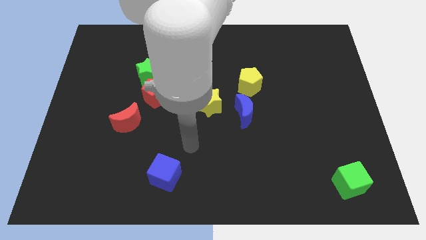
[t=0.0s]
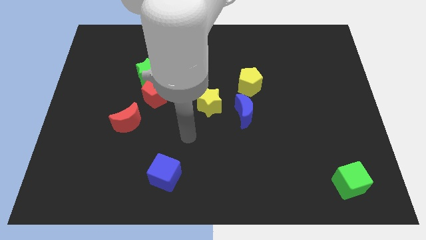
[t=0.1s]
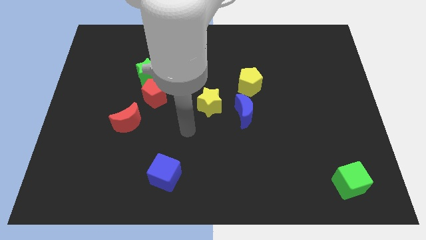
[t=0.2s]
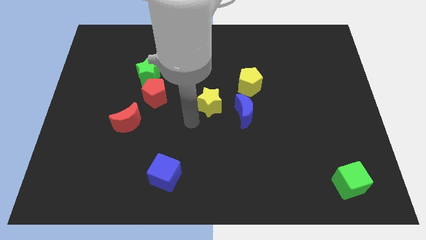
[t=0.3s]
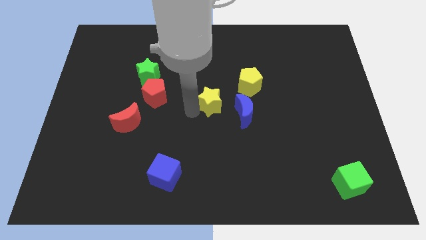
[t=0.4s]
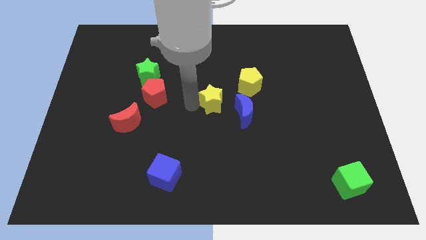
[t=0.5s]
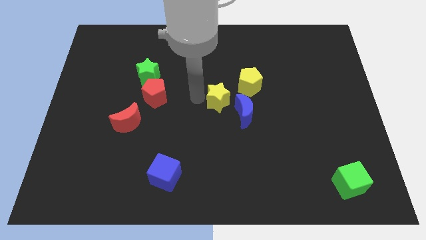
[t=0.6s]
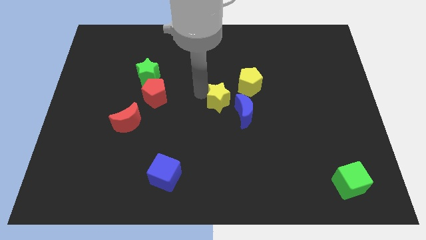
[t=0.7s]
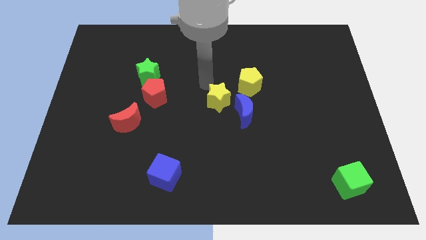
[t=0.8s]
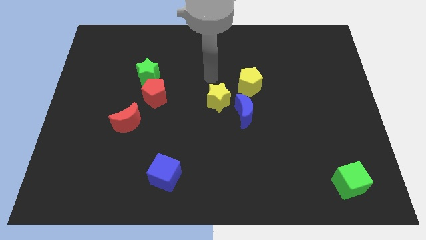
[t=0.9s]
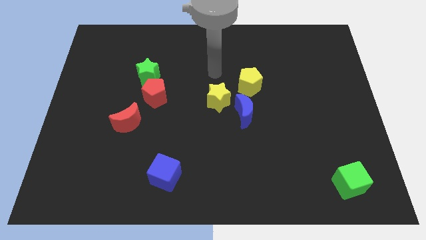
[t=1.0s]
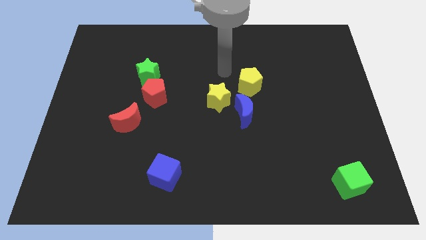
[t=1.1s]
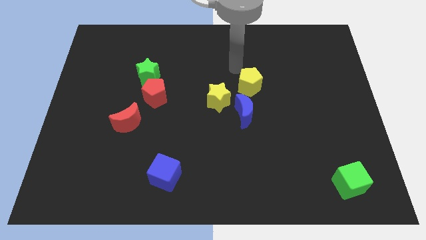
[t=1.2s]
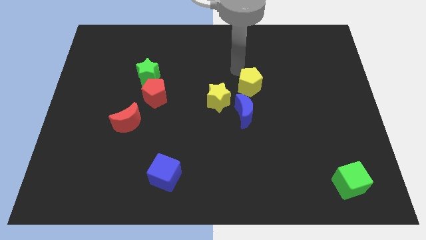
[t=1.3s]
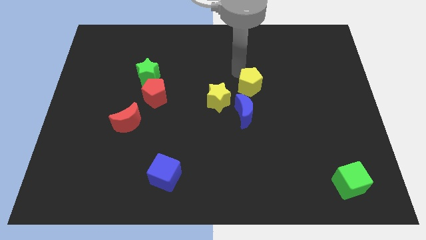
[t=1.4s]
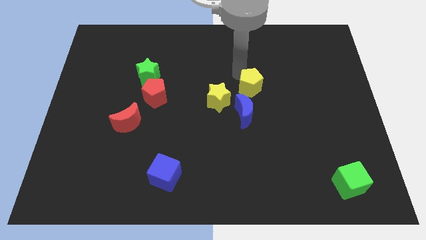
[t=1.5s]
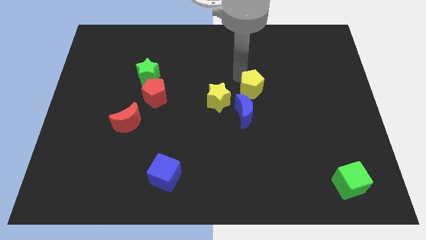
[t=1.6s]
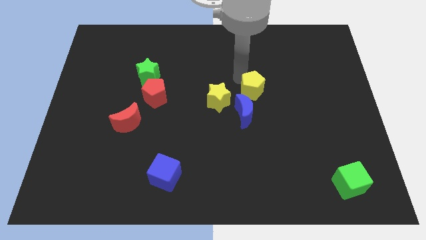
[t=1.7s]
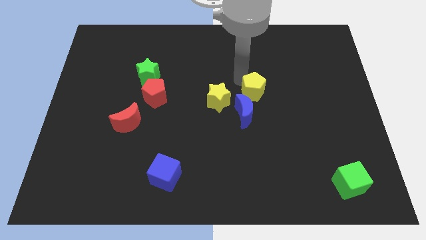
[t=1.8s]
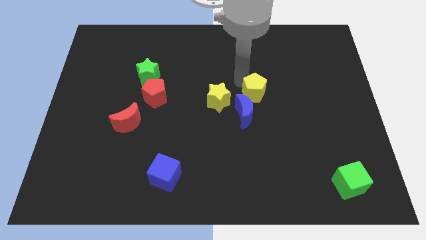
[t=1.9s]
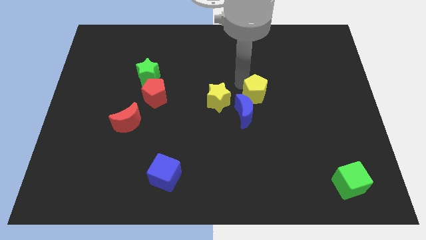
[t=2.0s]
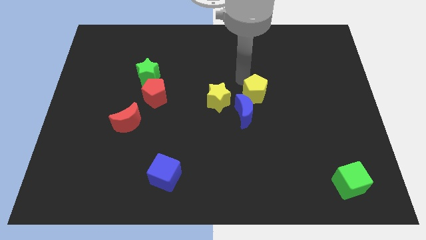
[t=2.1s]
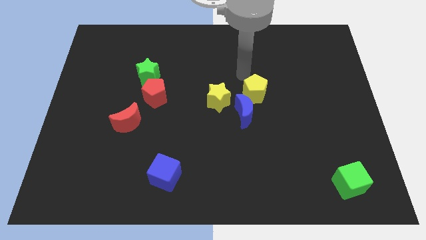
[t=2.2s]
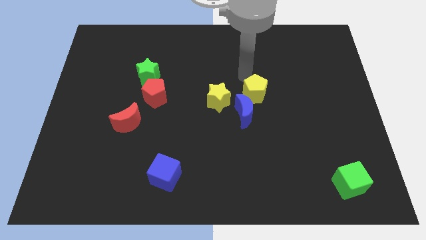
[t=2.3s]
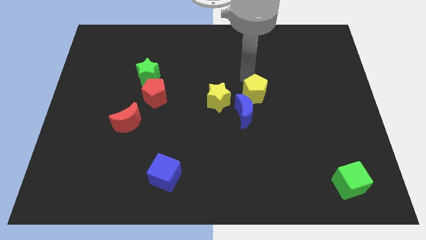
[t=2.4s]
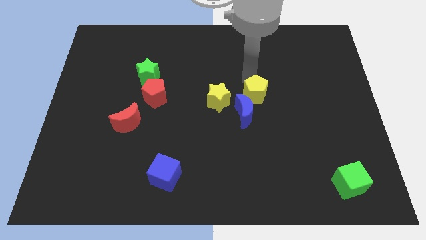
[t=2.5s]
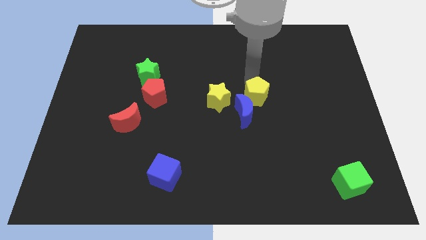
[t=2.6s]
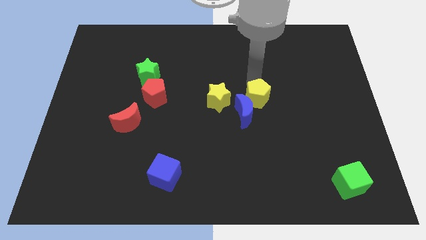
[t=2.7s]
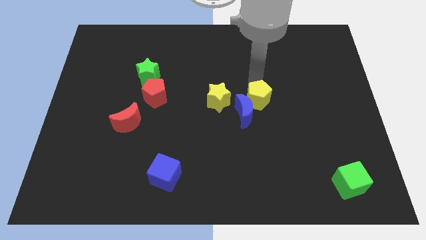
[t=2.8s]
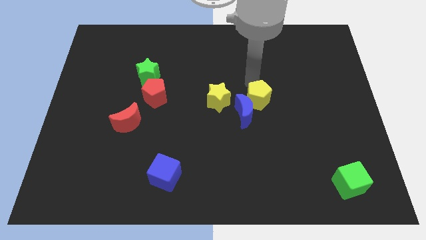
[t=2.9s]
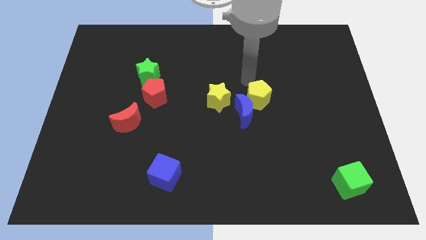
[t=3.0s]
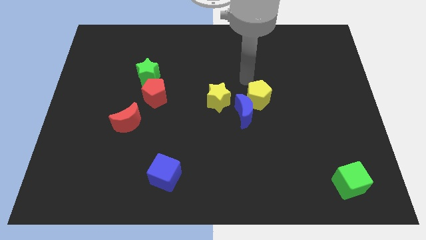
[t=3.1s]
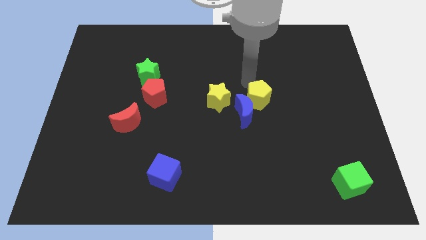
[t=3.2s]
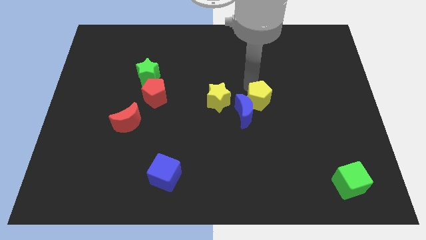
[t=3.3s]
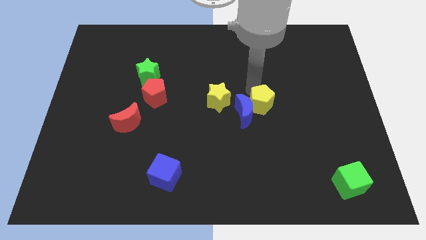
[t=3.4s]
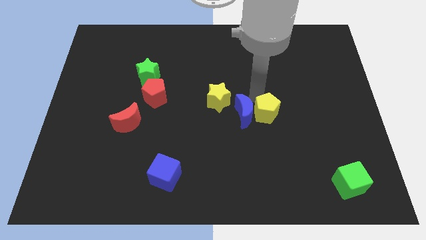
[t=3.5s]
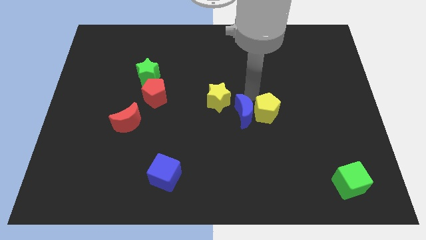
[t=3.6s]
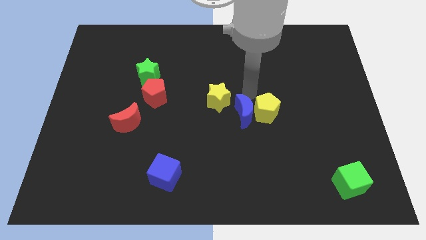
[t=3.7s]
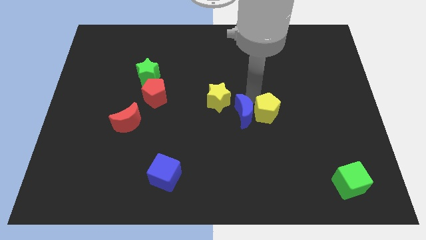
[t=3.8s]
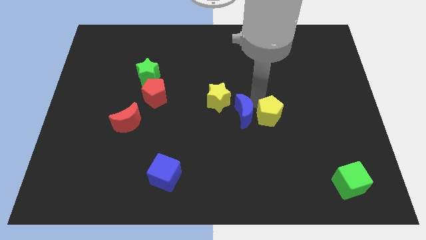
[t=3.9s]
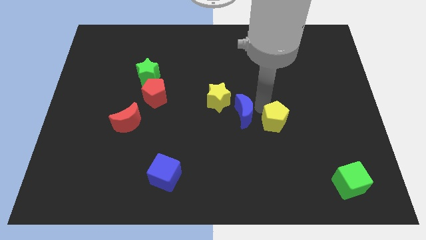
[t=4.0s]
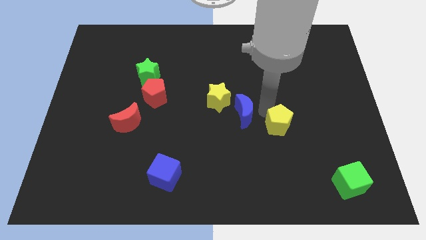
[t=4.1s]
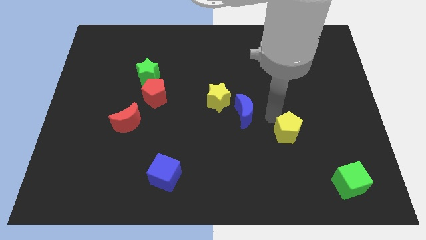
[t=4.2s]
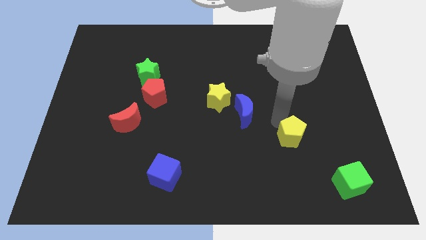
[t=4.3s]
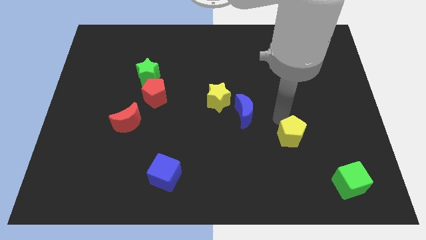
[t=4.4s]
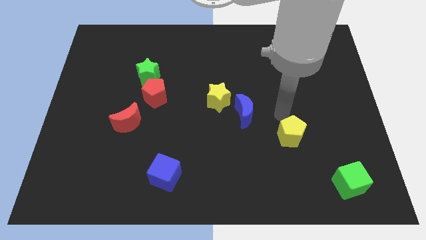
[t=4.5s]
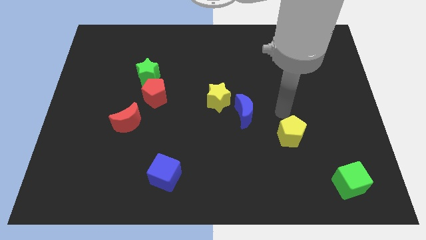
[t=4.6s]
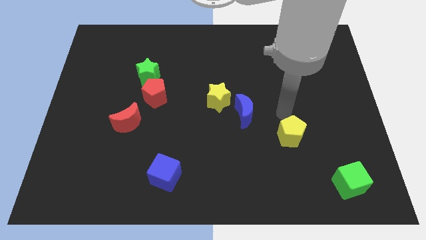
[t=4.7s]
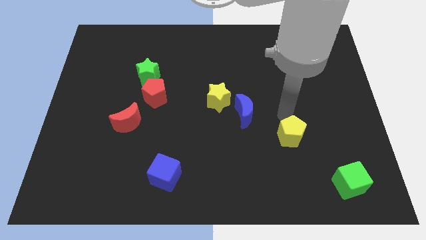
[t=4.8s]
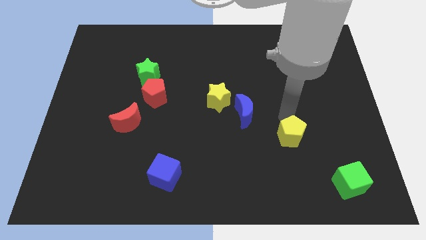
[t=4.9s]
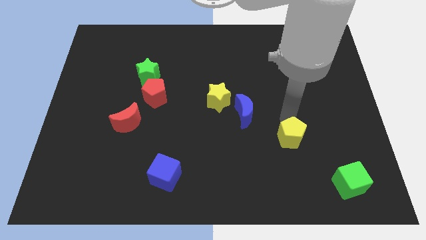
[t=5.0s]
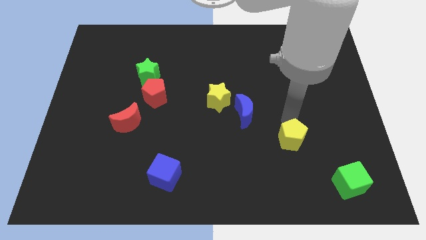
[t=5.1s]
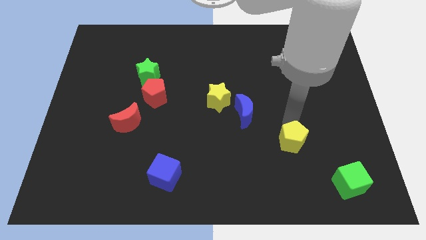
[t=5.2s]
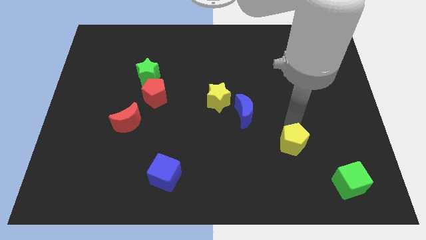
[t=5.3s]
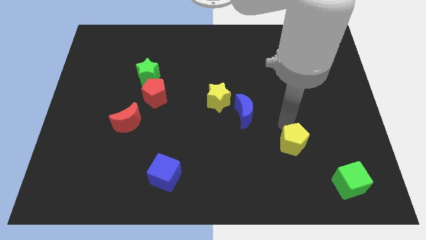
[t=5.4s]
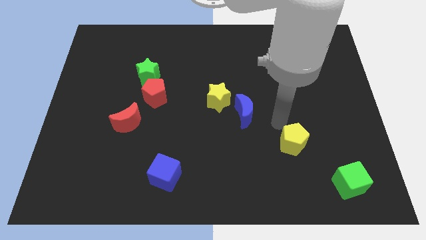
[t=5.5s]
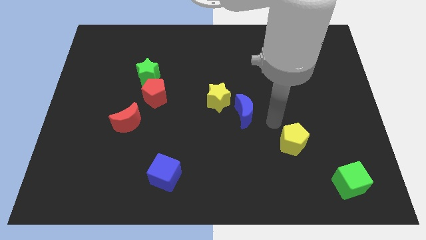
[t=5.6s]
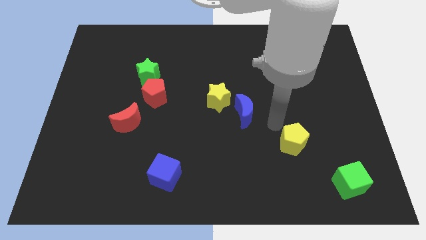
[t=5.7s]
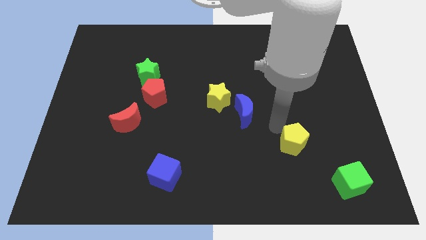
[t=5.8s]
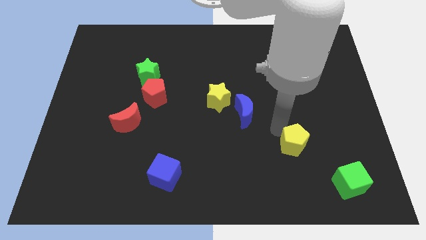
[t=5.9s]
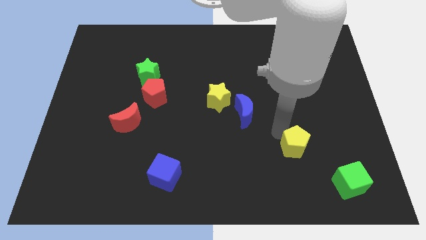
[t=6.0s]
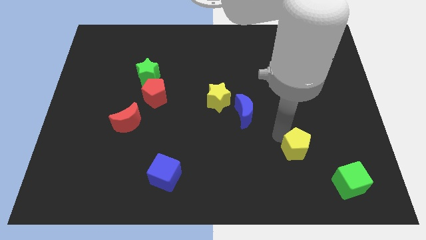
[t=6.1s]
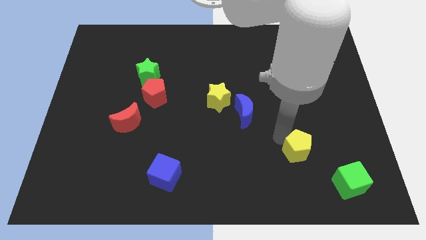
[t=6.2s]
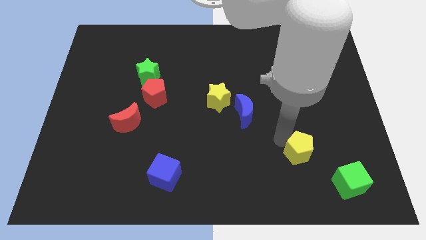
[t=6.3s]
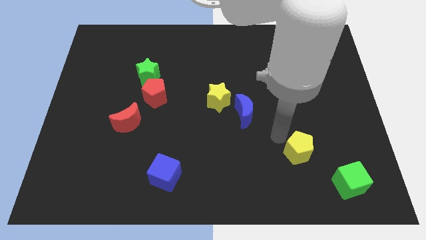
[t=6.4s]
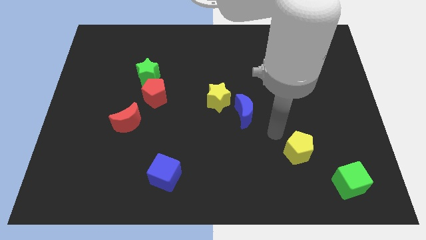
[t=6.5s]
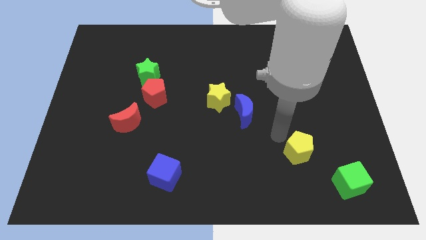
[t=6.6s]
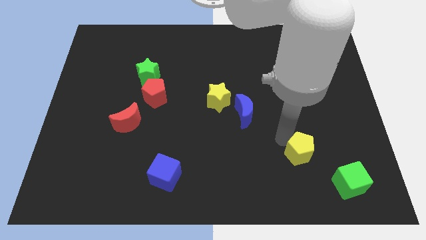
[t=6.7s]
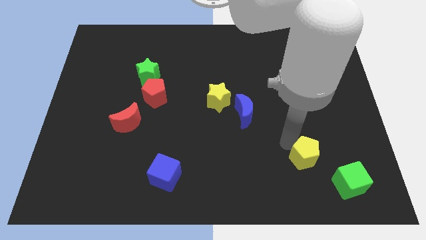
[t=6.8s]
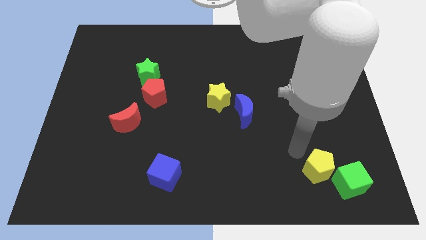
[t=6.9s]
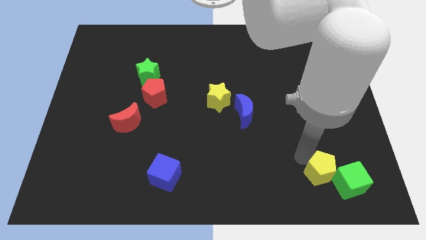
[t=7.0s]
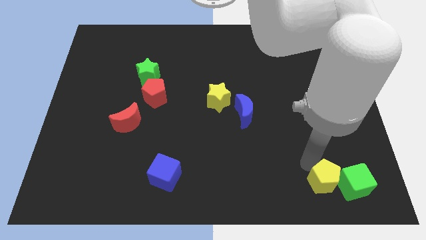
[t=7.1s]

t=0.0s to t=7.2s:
push the yellow pentagon to the green cube
